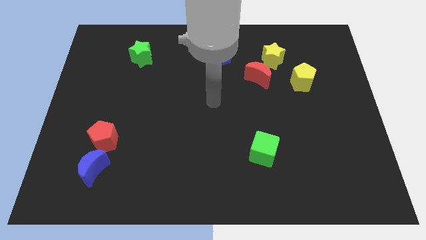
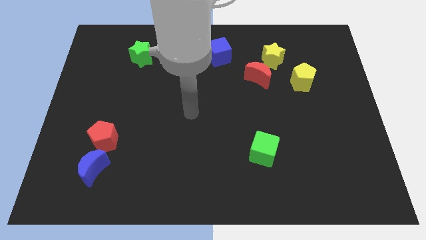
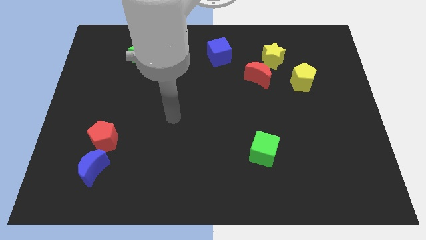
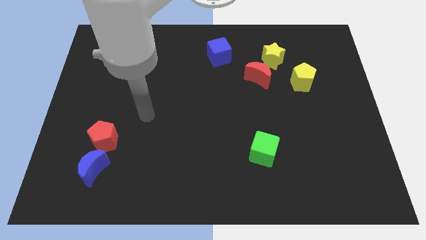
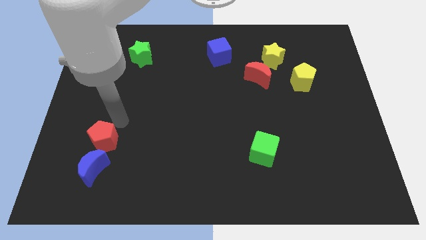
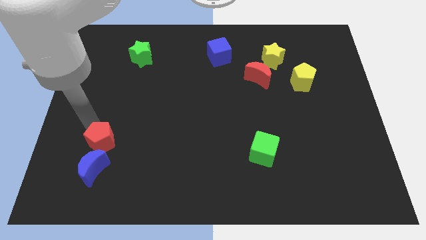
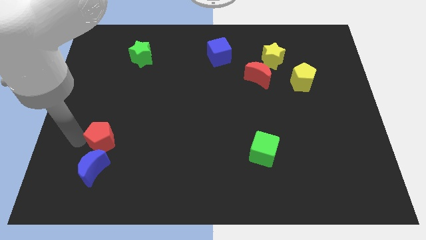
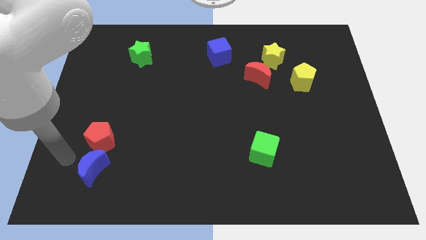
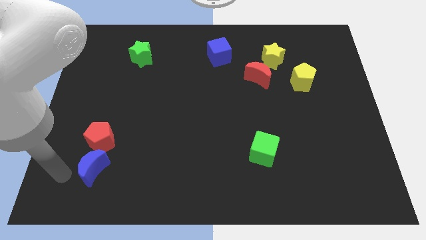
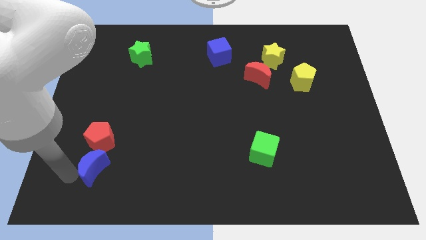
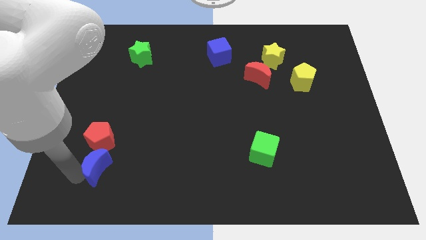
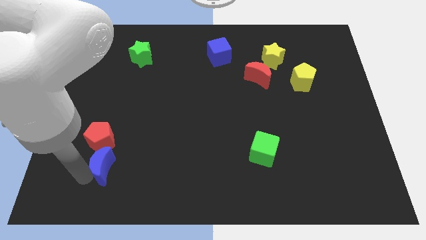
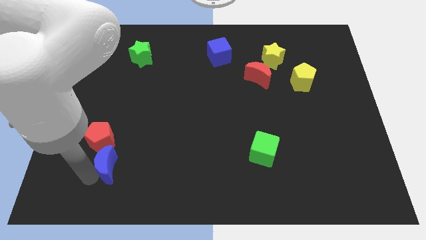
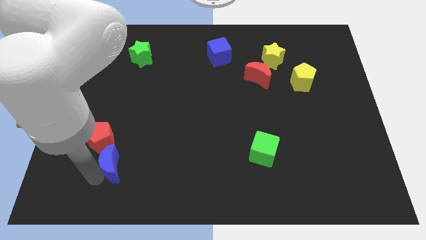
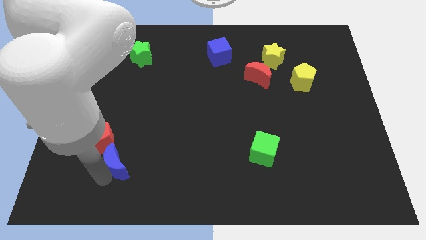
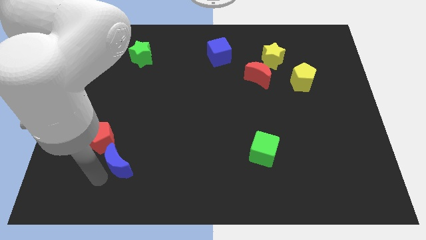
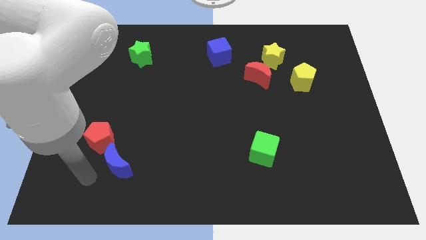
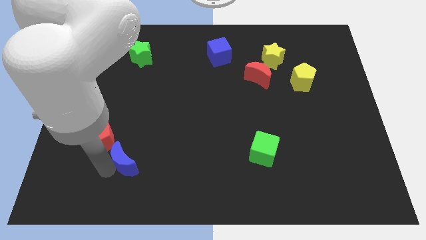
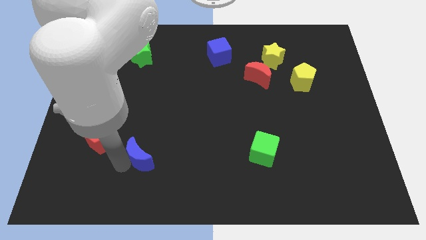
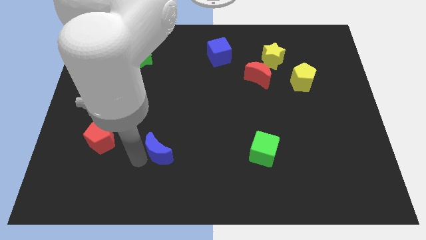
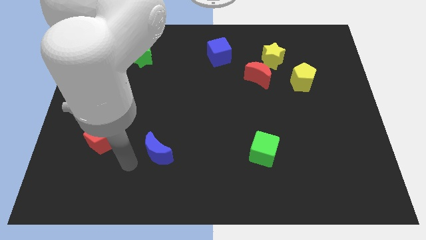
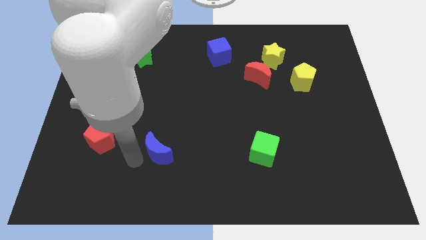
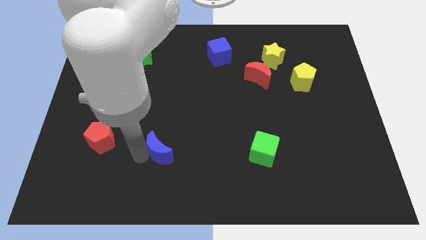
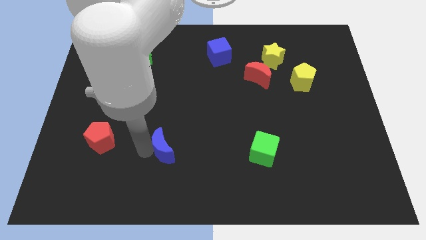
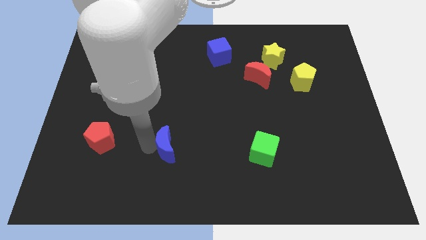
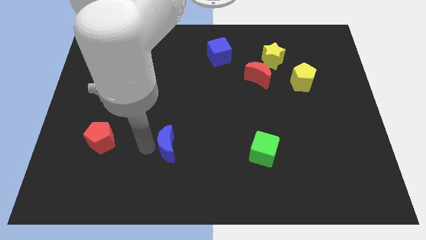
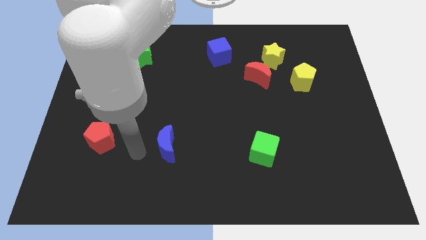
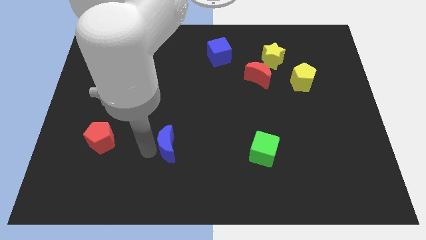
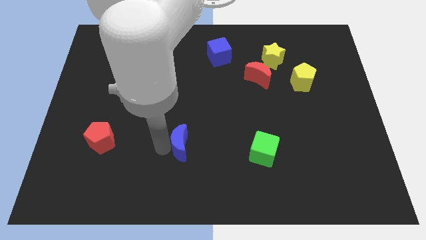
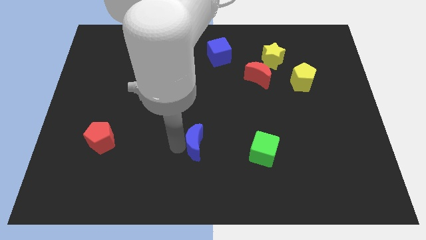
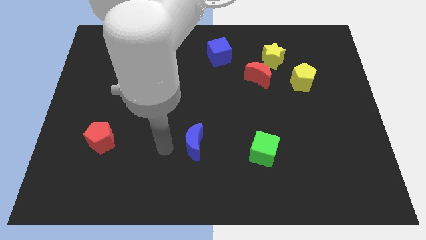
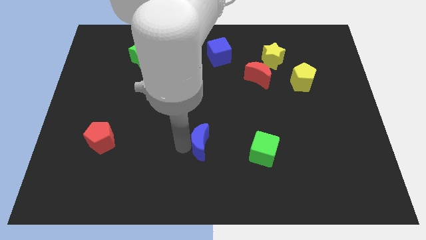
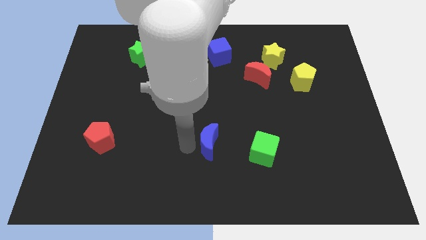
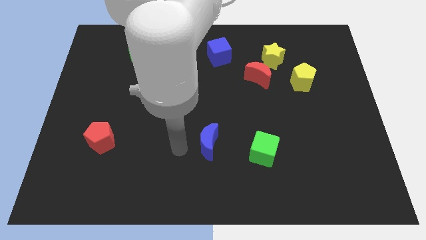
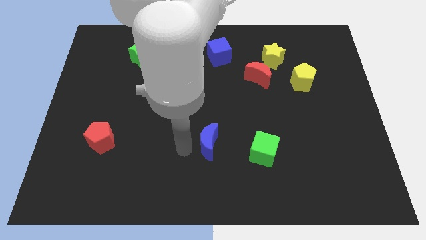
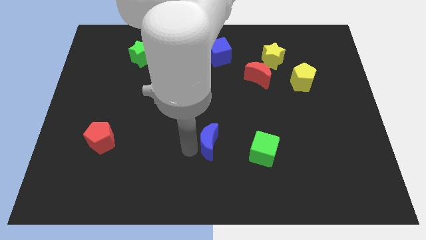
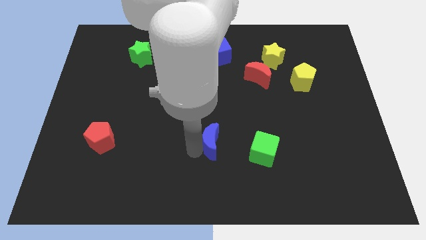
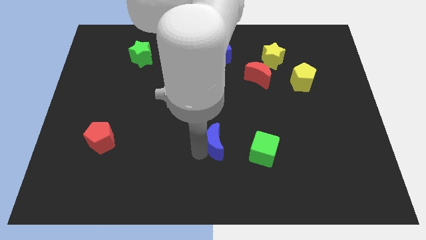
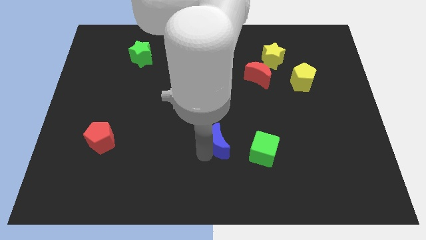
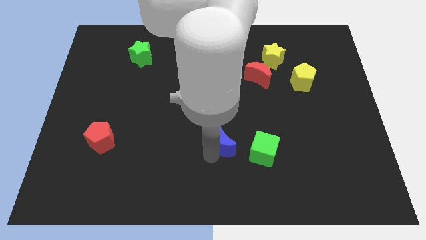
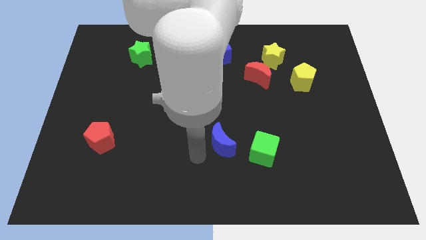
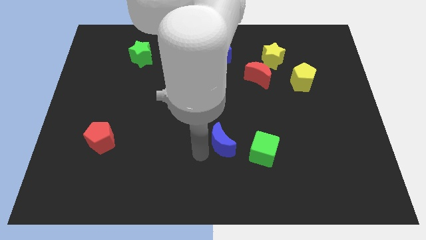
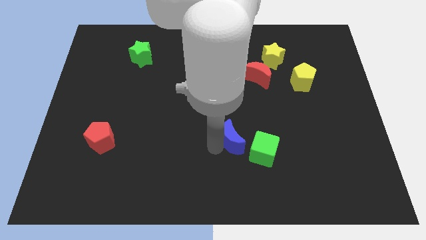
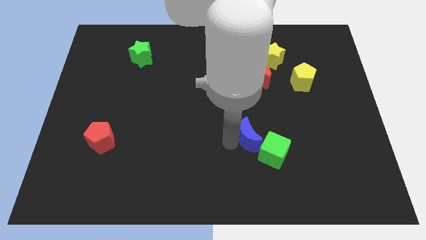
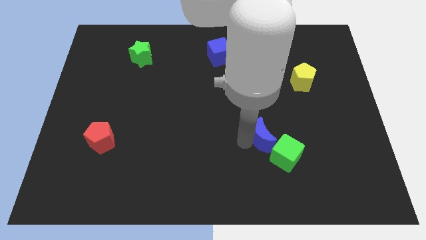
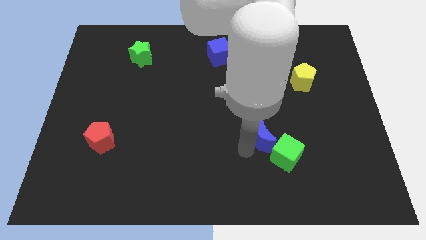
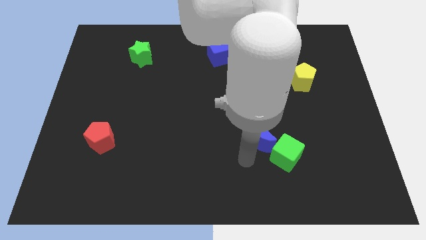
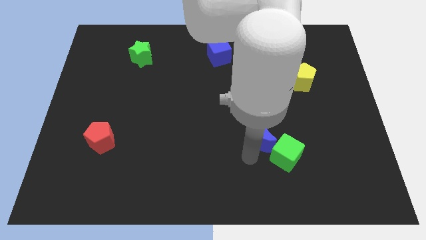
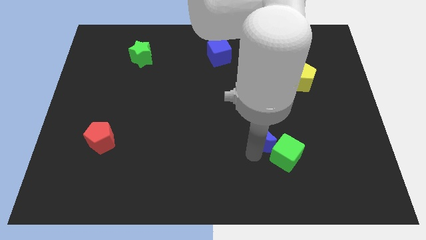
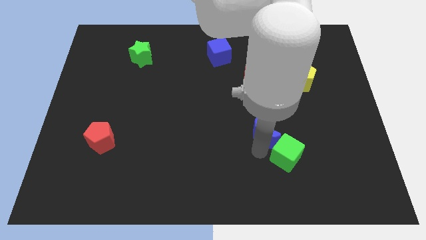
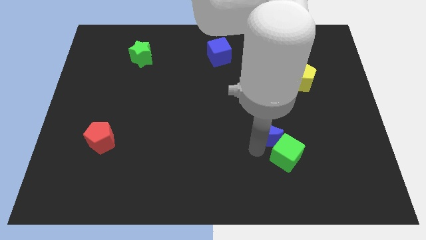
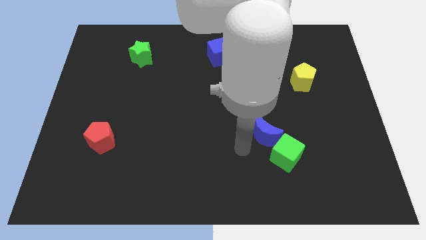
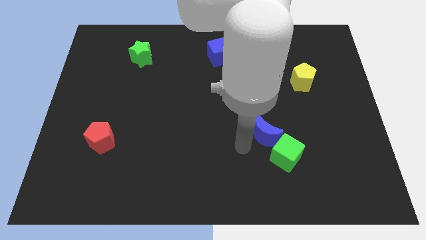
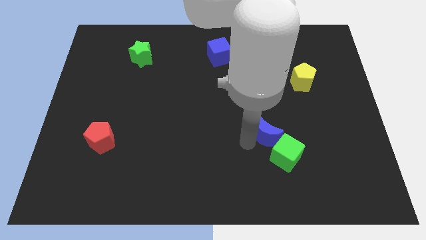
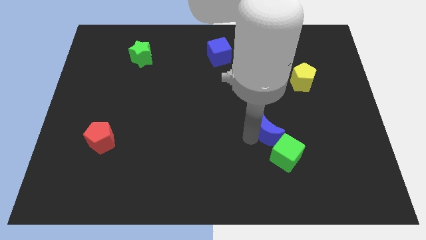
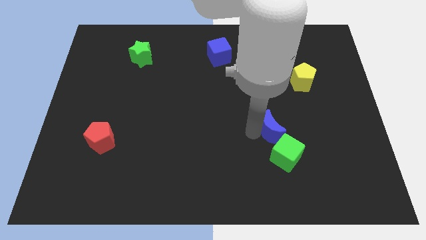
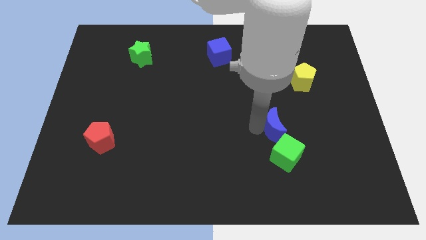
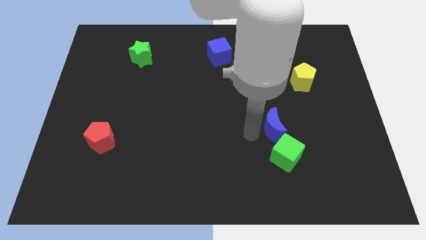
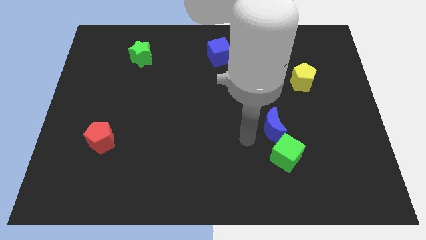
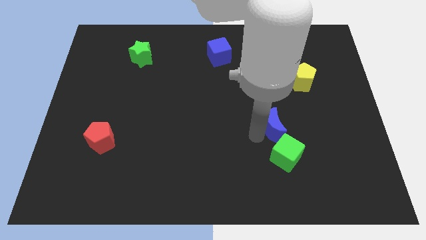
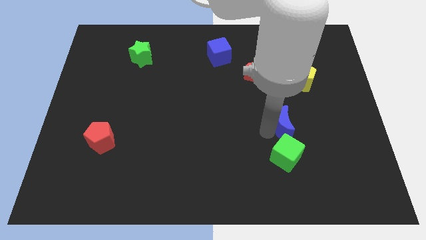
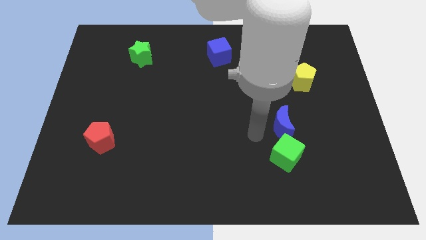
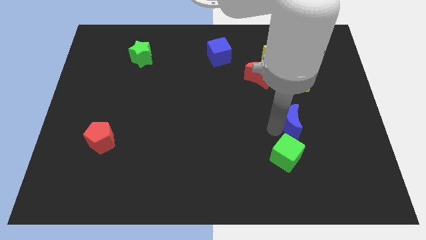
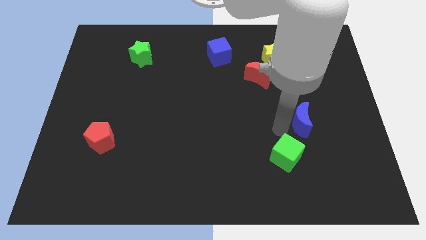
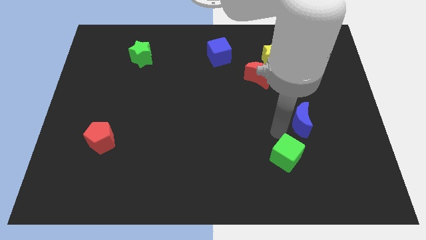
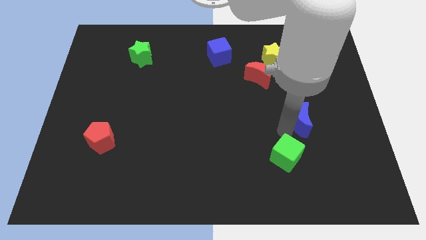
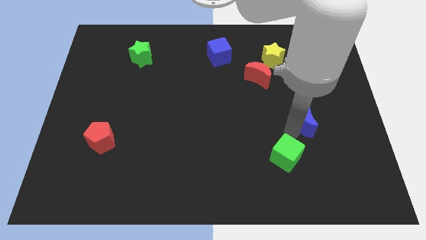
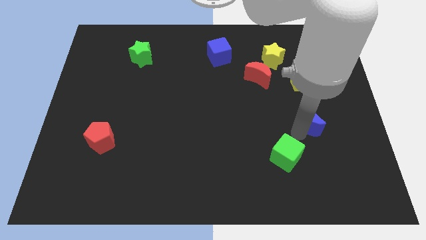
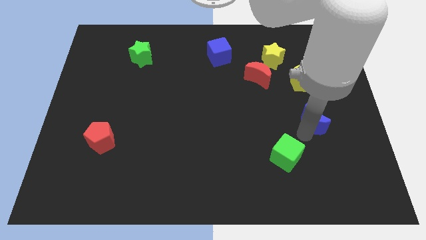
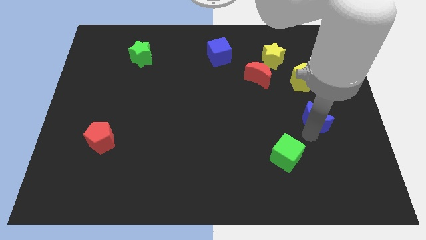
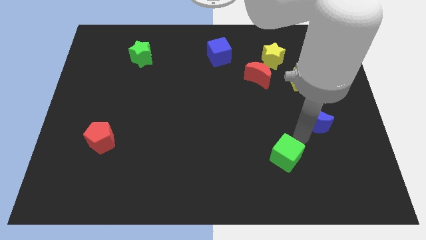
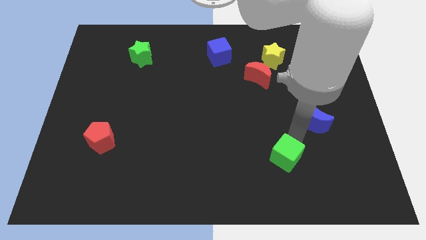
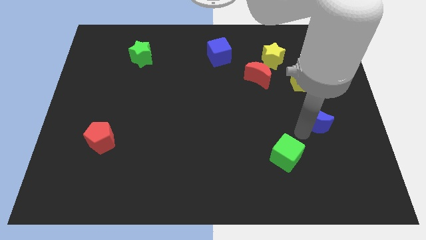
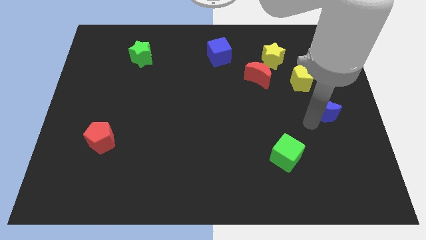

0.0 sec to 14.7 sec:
push the blue moon to the right side of the board
